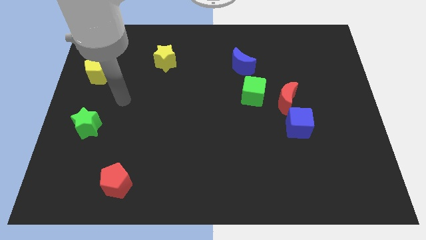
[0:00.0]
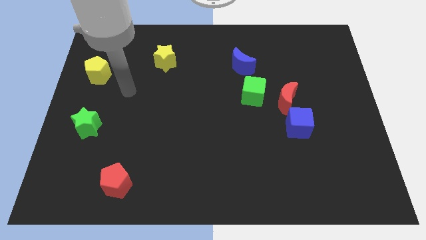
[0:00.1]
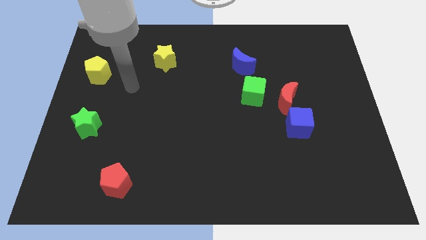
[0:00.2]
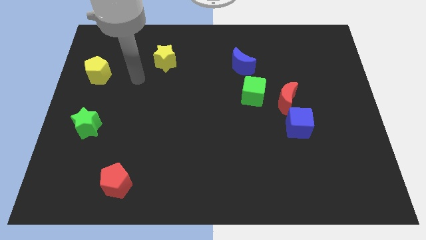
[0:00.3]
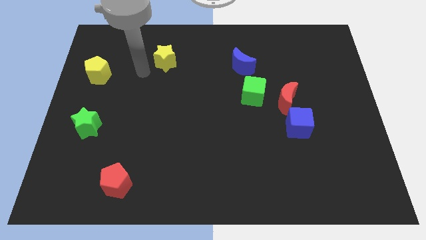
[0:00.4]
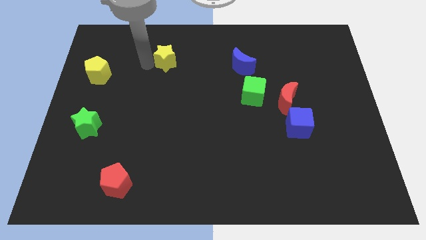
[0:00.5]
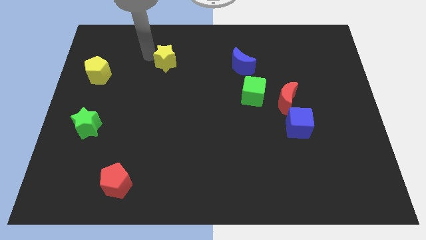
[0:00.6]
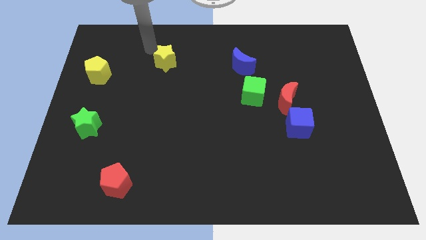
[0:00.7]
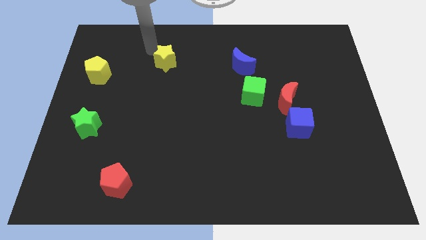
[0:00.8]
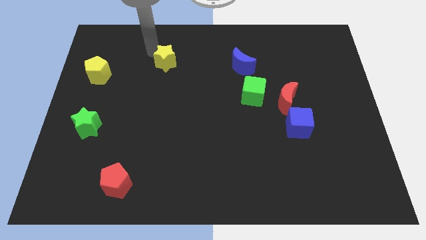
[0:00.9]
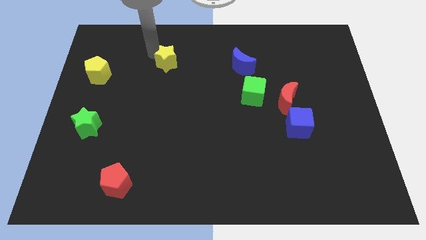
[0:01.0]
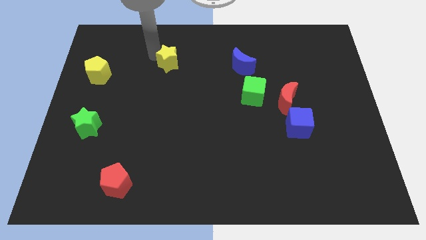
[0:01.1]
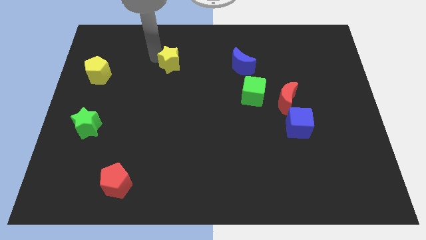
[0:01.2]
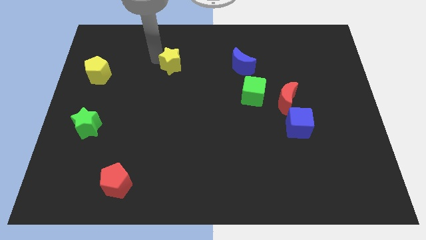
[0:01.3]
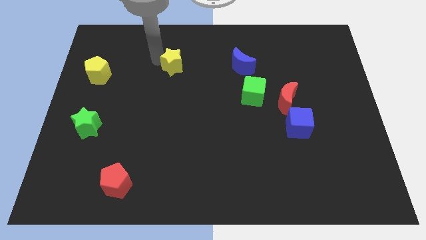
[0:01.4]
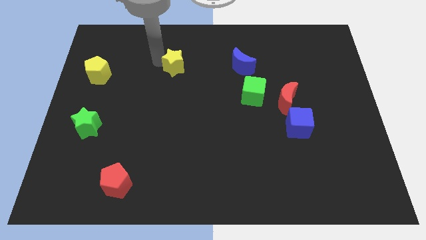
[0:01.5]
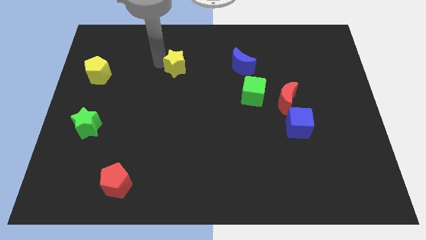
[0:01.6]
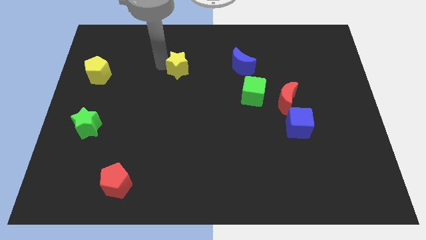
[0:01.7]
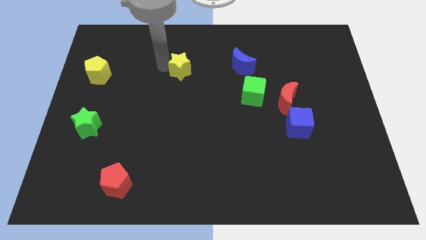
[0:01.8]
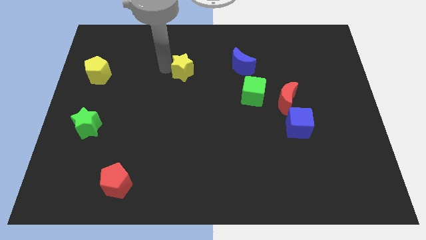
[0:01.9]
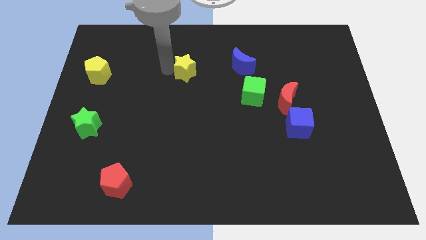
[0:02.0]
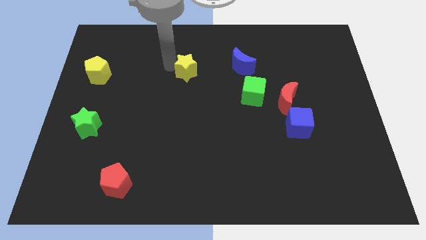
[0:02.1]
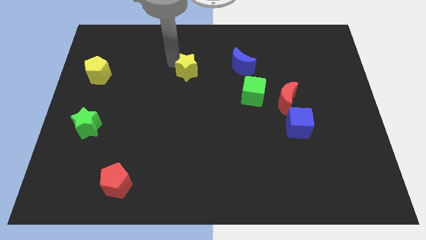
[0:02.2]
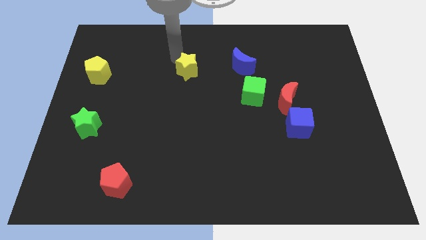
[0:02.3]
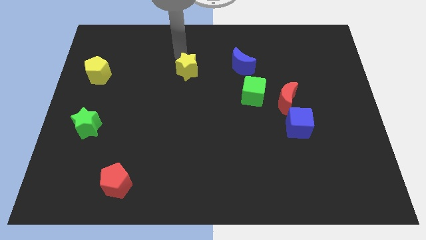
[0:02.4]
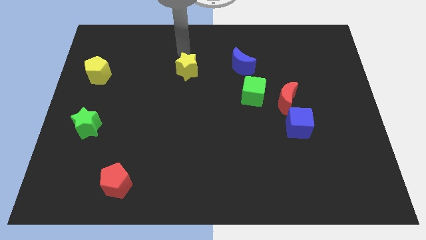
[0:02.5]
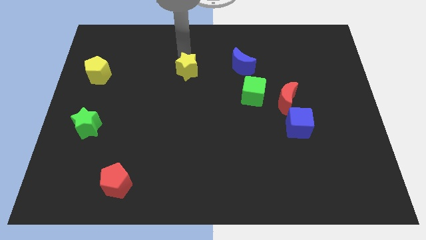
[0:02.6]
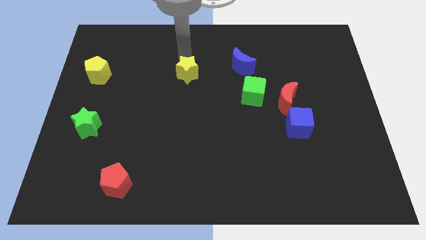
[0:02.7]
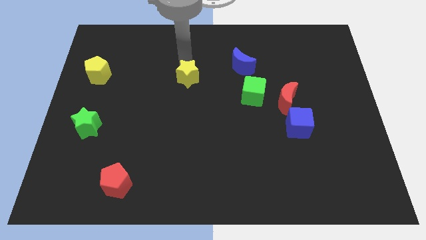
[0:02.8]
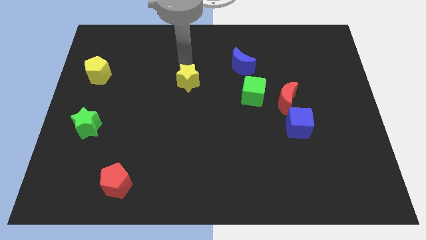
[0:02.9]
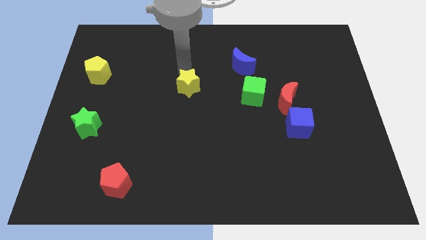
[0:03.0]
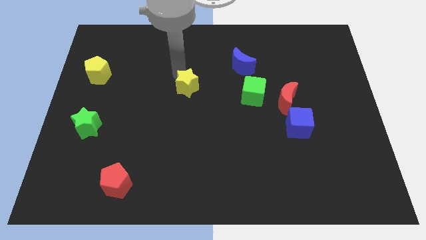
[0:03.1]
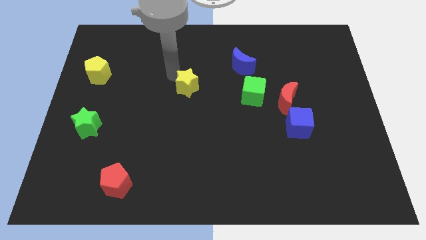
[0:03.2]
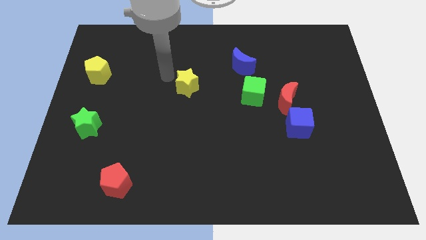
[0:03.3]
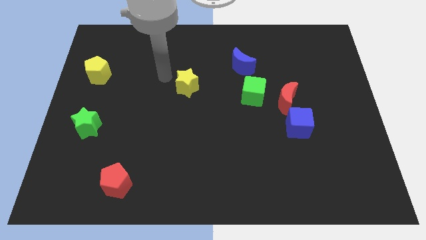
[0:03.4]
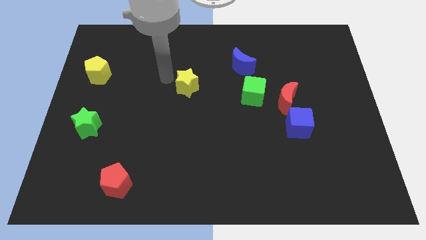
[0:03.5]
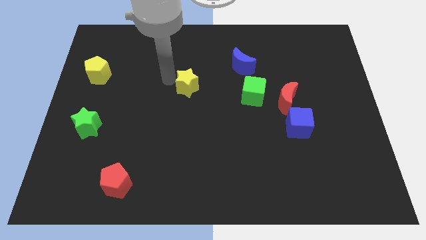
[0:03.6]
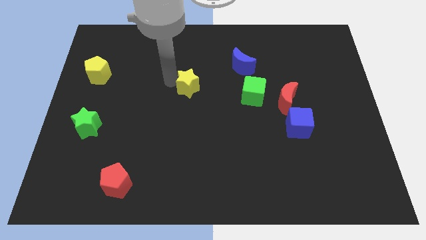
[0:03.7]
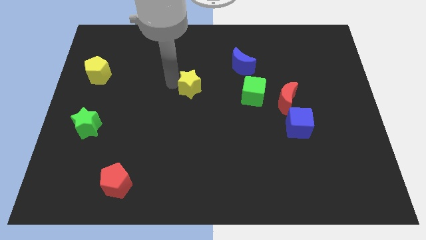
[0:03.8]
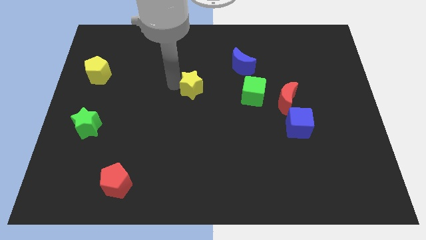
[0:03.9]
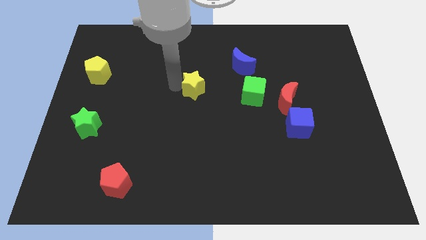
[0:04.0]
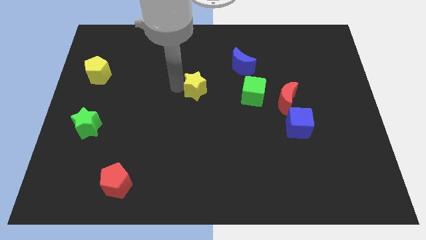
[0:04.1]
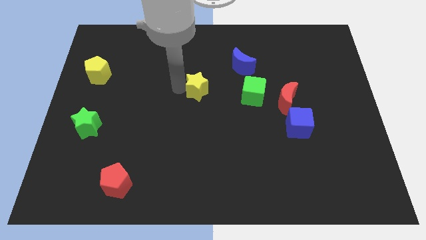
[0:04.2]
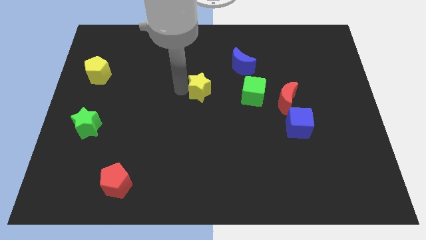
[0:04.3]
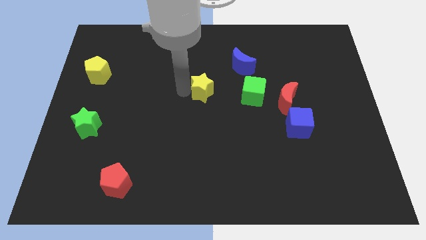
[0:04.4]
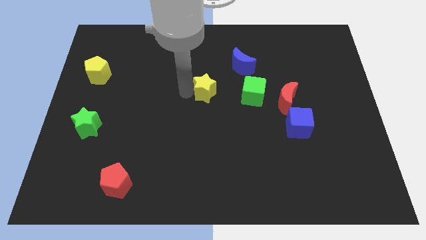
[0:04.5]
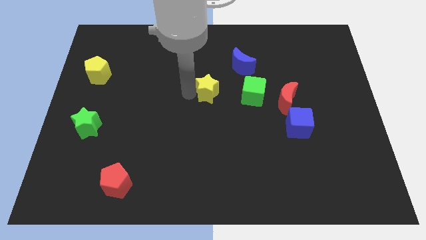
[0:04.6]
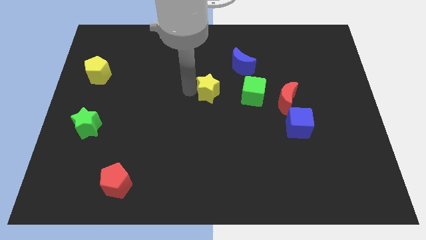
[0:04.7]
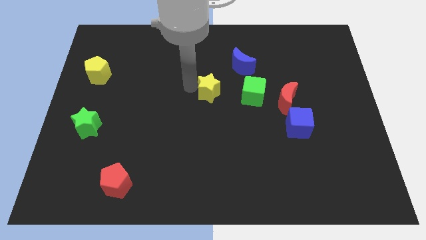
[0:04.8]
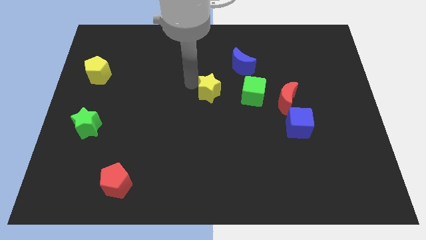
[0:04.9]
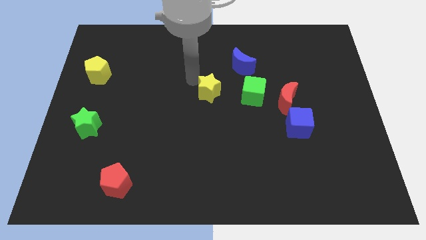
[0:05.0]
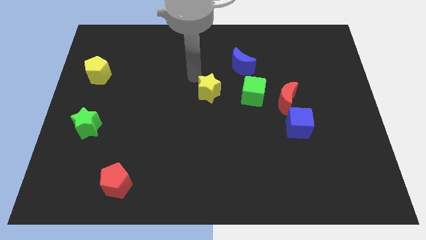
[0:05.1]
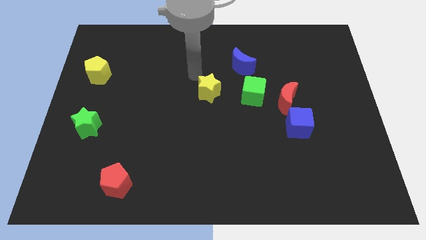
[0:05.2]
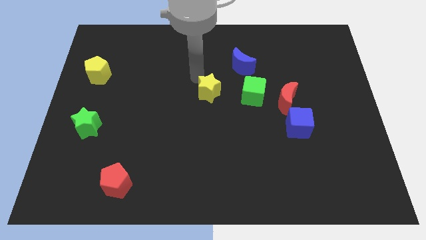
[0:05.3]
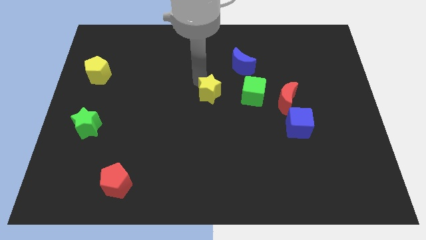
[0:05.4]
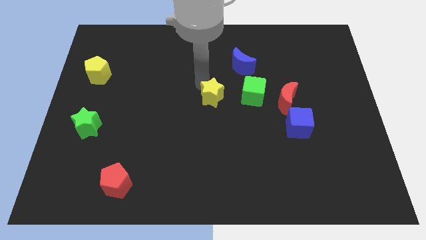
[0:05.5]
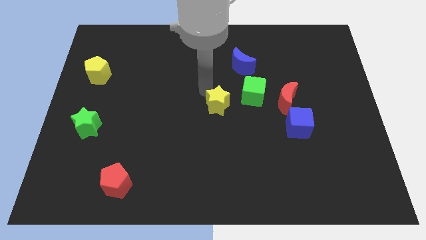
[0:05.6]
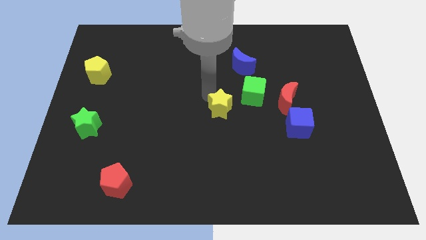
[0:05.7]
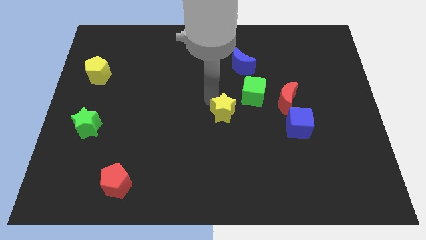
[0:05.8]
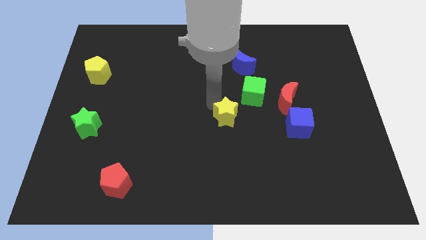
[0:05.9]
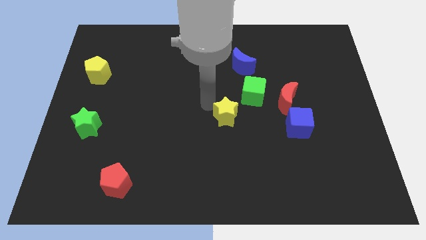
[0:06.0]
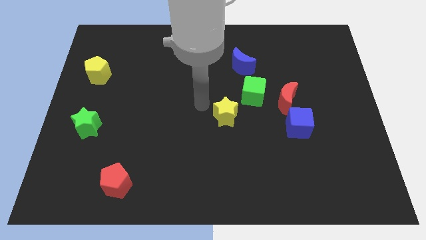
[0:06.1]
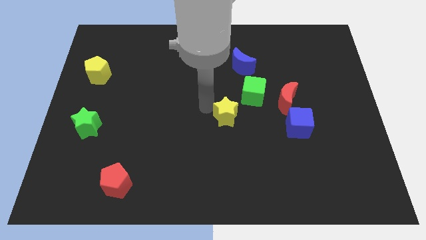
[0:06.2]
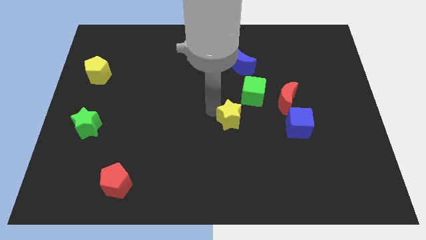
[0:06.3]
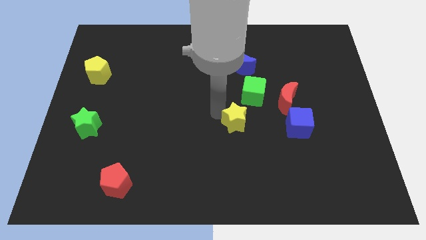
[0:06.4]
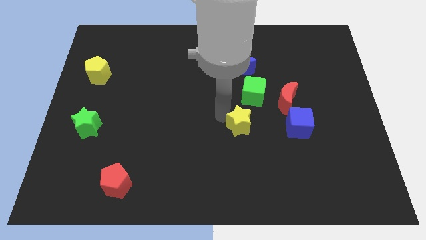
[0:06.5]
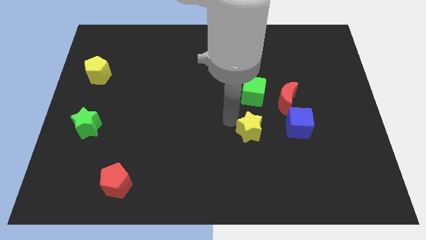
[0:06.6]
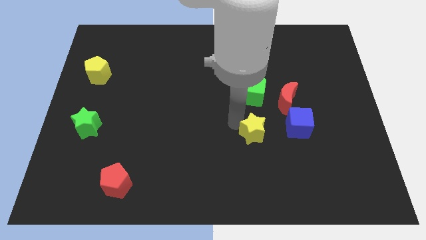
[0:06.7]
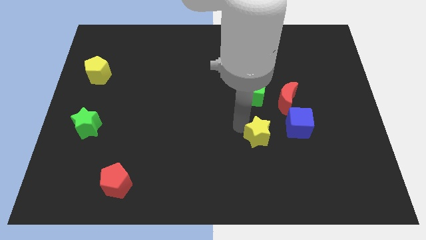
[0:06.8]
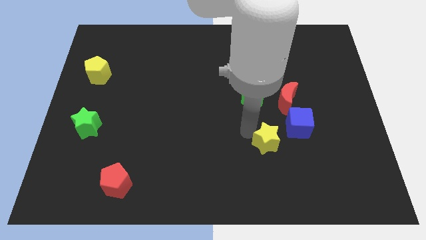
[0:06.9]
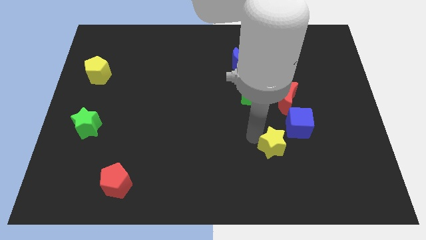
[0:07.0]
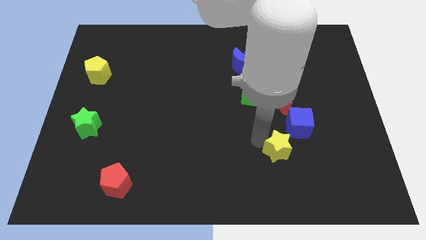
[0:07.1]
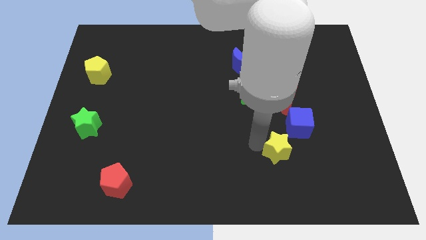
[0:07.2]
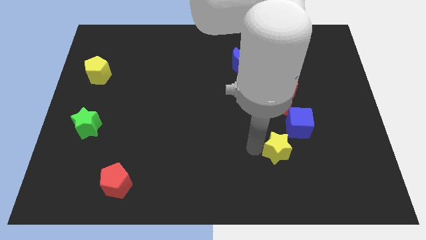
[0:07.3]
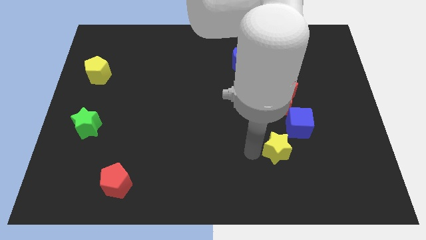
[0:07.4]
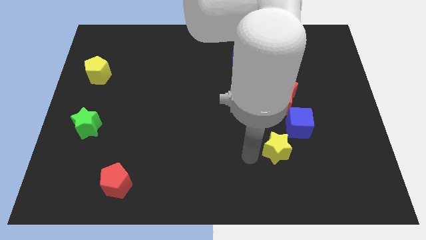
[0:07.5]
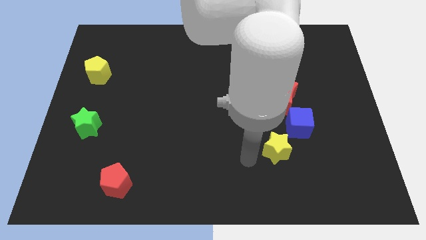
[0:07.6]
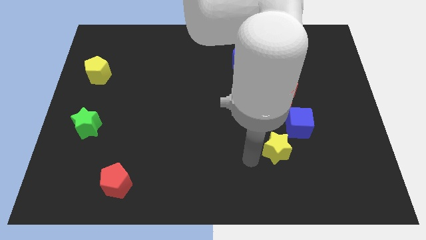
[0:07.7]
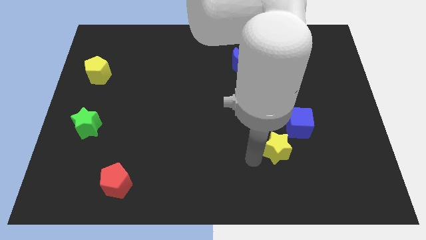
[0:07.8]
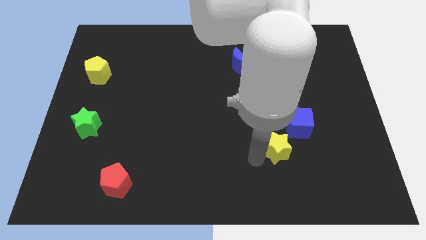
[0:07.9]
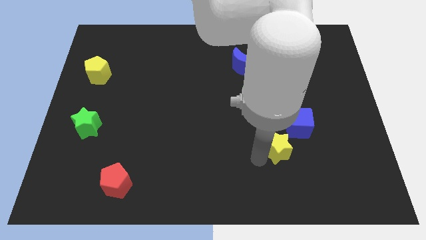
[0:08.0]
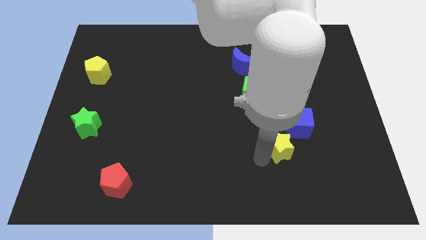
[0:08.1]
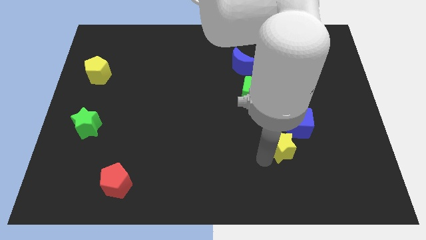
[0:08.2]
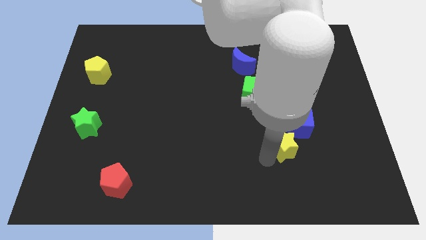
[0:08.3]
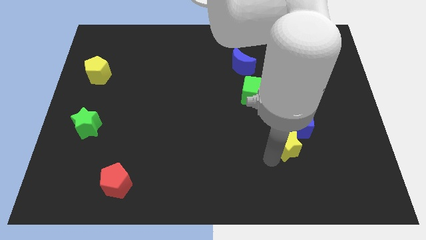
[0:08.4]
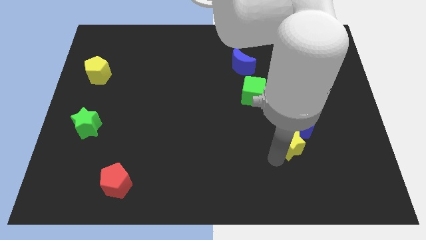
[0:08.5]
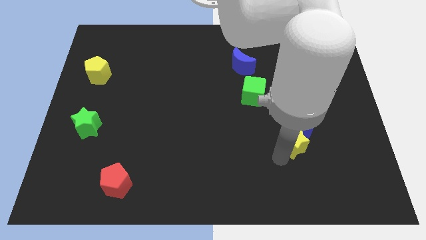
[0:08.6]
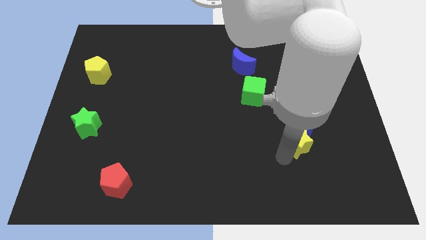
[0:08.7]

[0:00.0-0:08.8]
put the yellow star diagonally down and to the right of the blue cube
